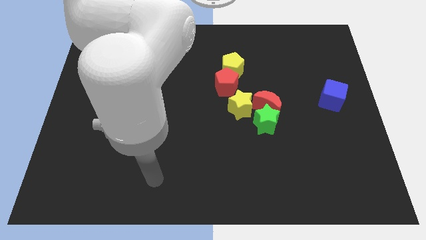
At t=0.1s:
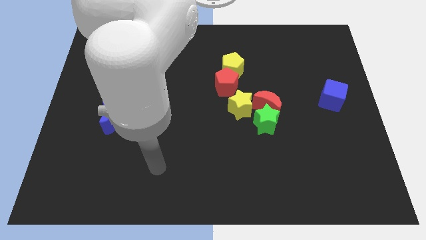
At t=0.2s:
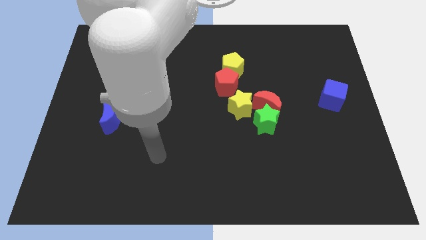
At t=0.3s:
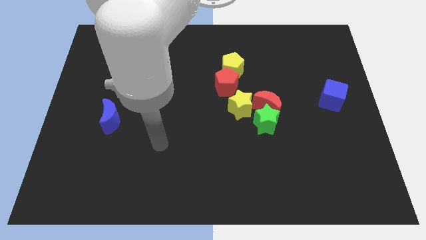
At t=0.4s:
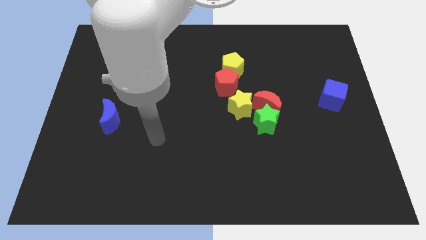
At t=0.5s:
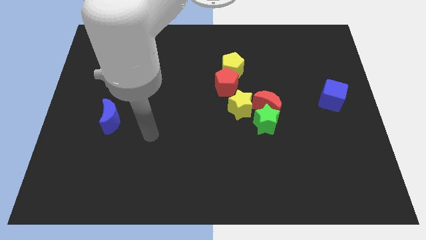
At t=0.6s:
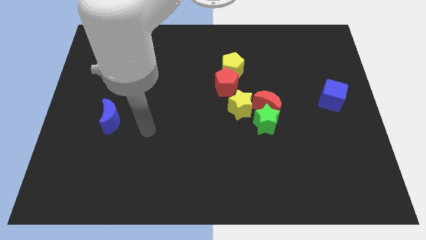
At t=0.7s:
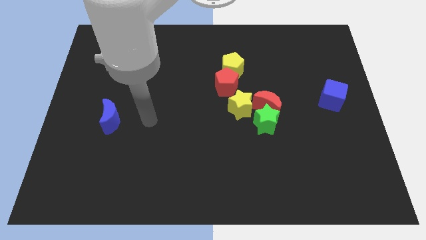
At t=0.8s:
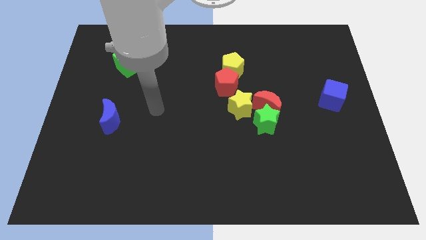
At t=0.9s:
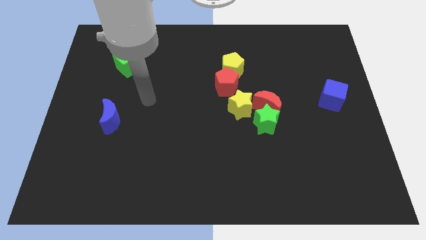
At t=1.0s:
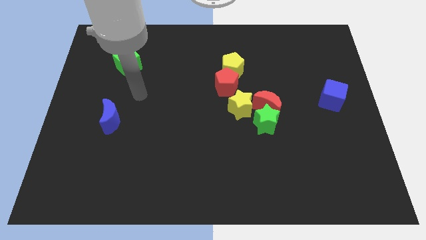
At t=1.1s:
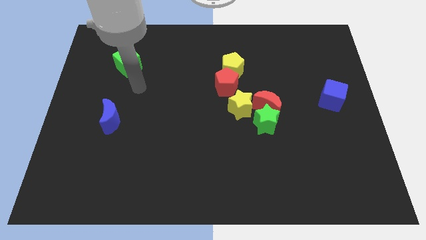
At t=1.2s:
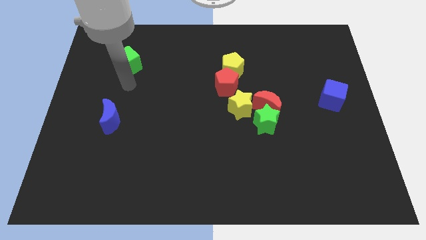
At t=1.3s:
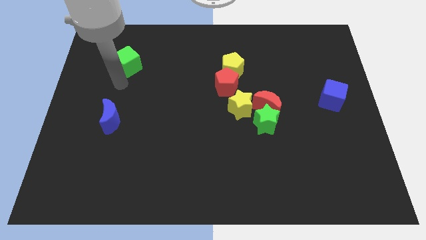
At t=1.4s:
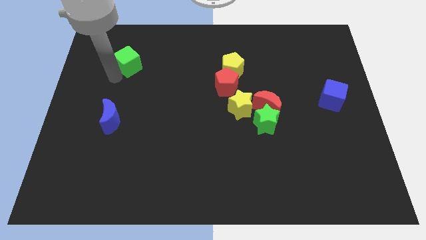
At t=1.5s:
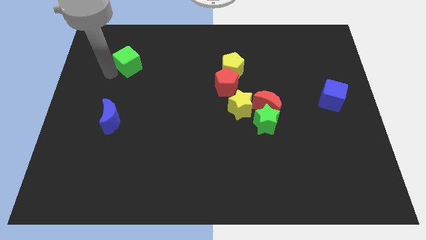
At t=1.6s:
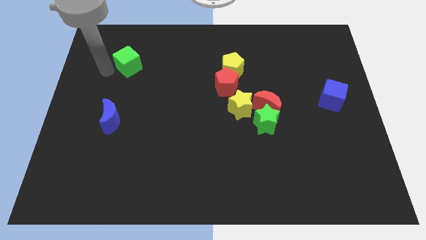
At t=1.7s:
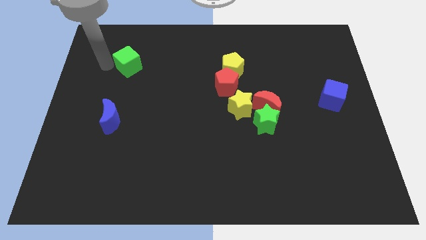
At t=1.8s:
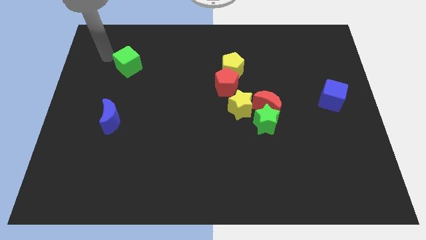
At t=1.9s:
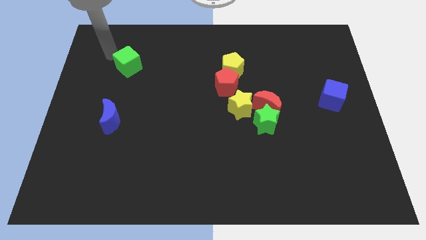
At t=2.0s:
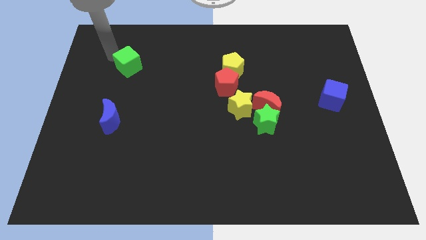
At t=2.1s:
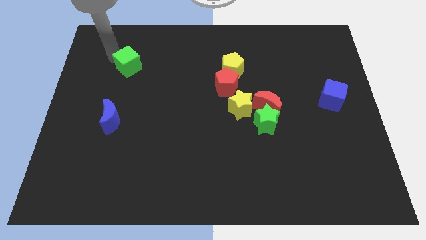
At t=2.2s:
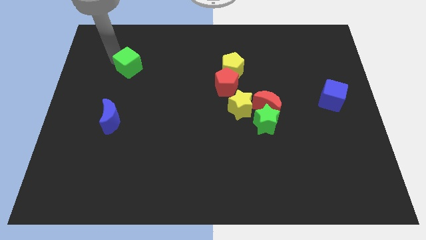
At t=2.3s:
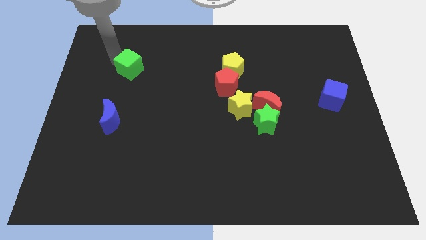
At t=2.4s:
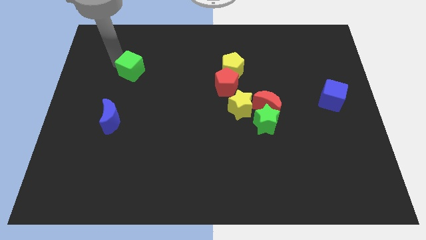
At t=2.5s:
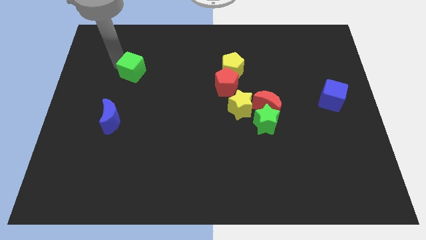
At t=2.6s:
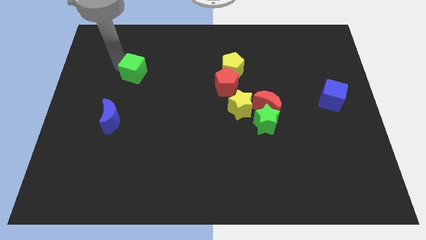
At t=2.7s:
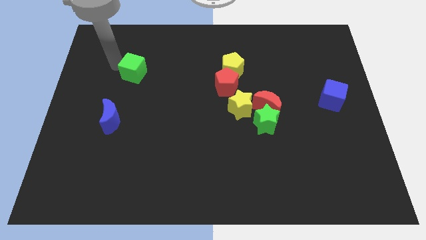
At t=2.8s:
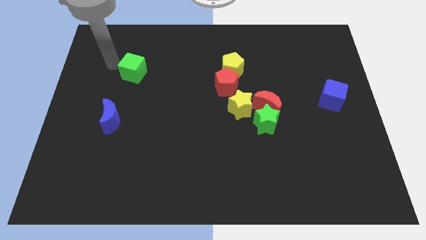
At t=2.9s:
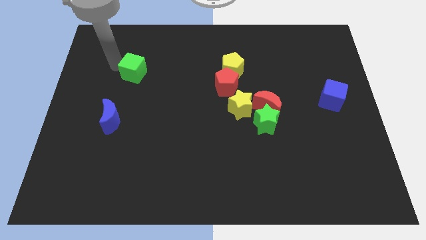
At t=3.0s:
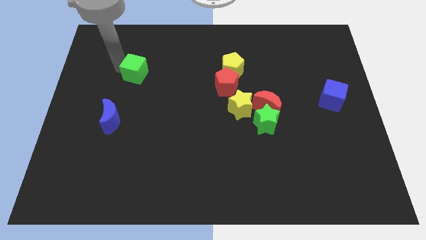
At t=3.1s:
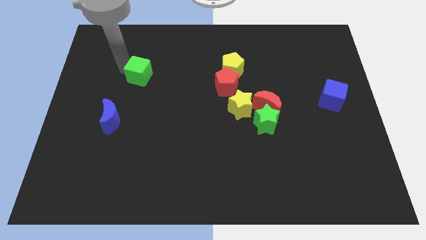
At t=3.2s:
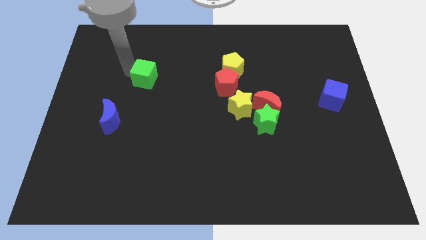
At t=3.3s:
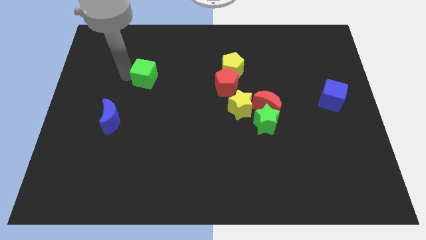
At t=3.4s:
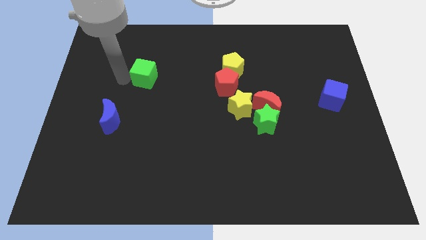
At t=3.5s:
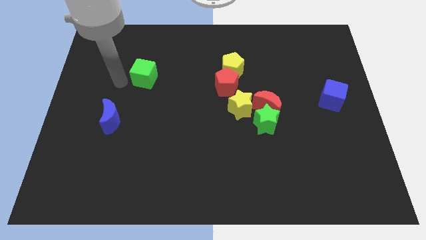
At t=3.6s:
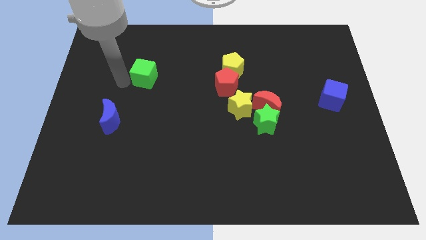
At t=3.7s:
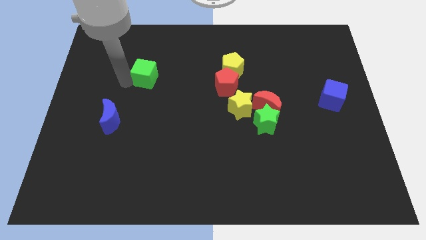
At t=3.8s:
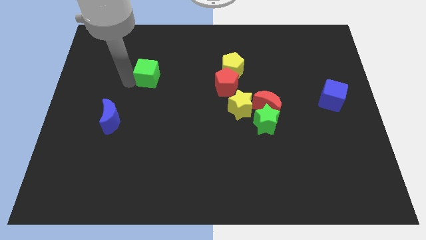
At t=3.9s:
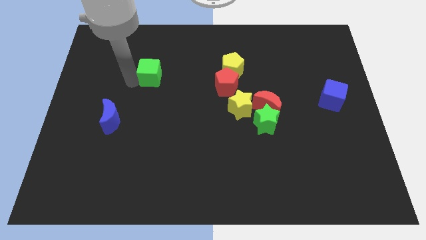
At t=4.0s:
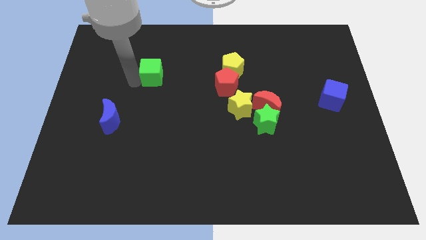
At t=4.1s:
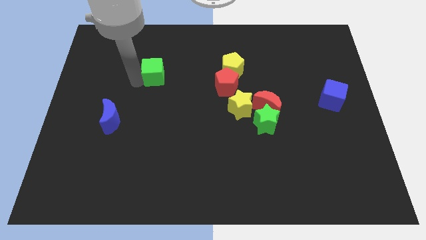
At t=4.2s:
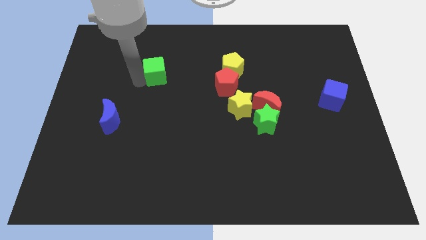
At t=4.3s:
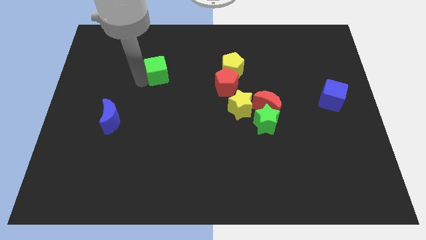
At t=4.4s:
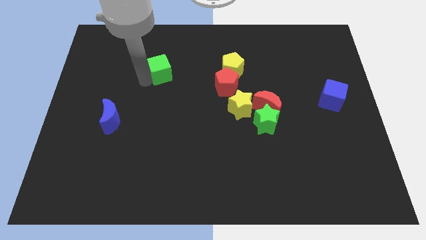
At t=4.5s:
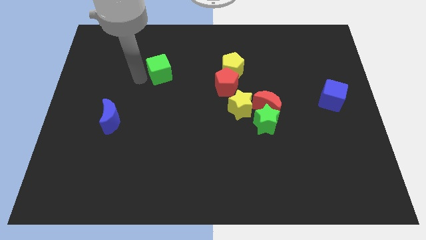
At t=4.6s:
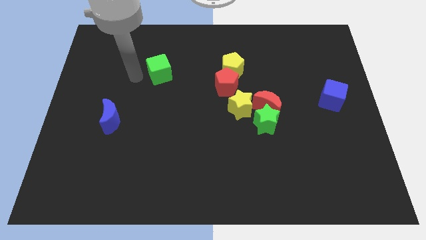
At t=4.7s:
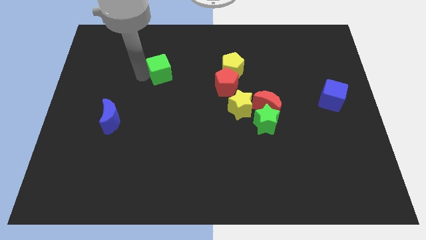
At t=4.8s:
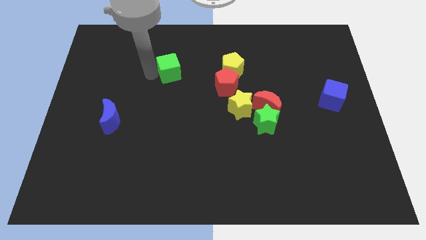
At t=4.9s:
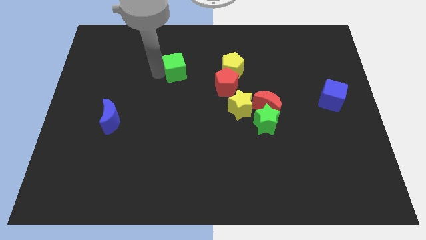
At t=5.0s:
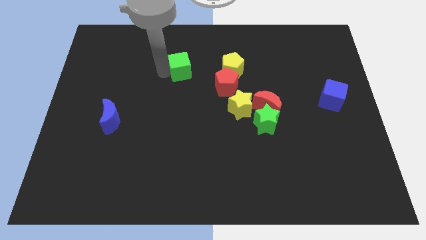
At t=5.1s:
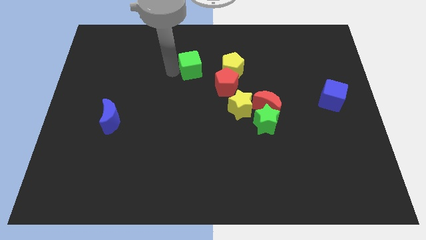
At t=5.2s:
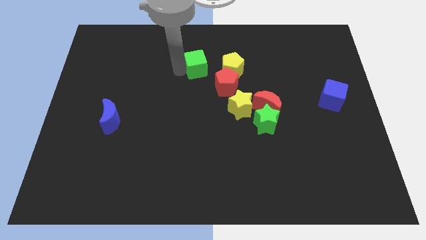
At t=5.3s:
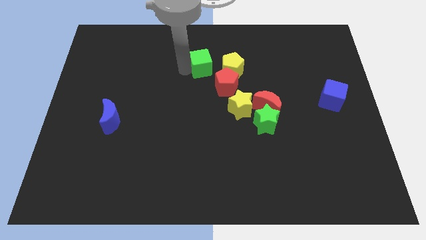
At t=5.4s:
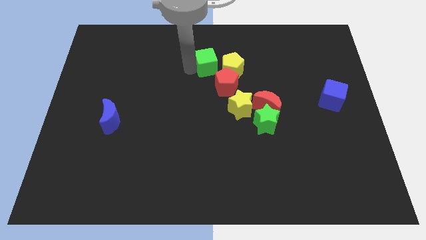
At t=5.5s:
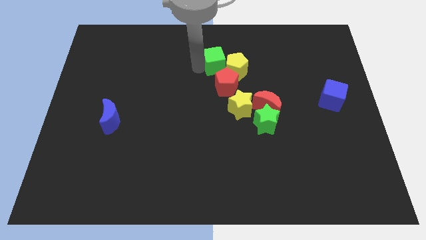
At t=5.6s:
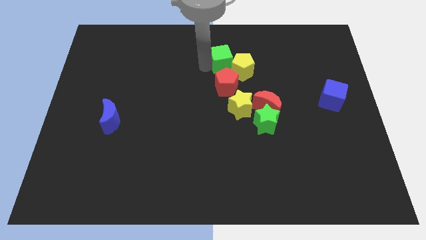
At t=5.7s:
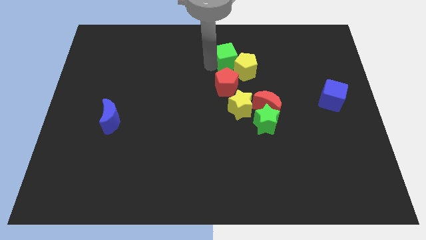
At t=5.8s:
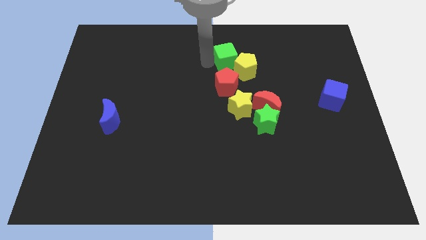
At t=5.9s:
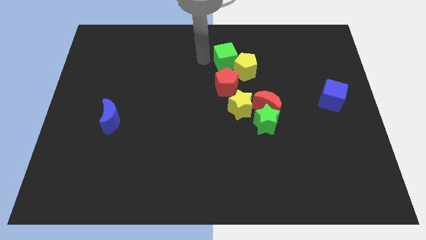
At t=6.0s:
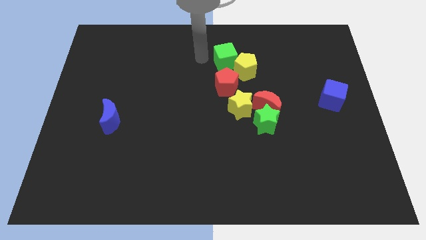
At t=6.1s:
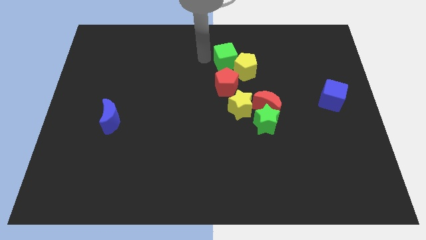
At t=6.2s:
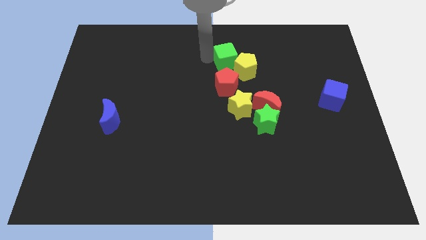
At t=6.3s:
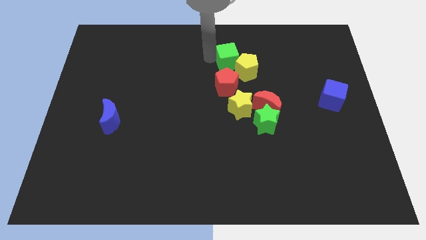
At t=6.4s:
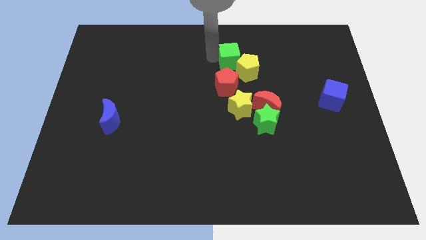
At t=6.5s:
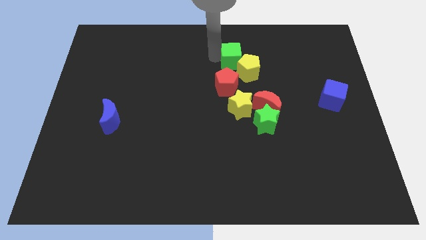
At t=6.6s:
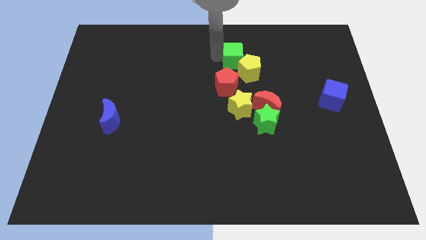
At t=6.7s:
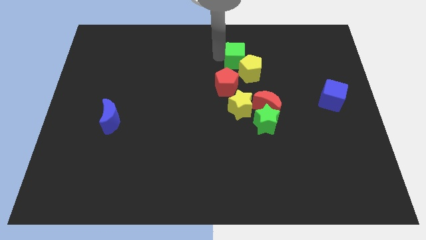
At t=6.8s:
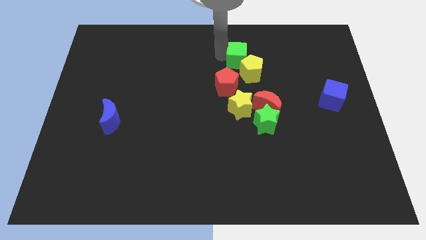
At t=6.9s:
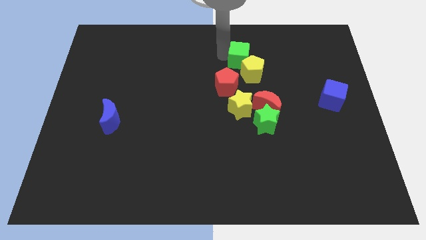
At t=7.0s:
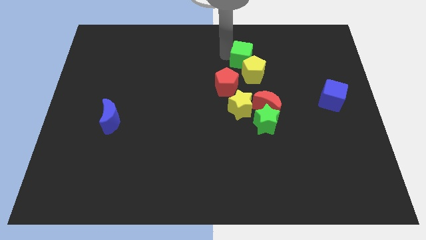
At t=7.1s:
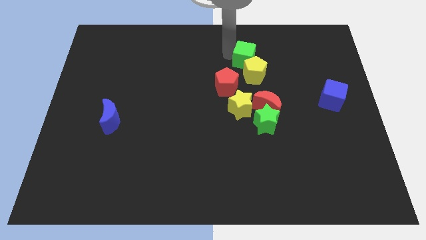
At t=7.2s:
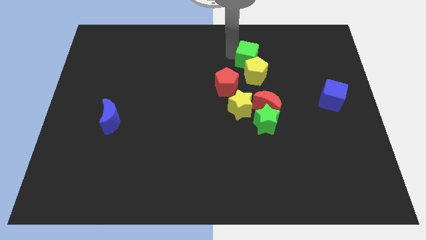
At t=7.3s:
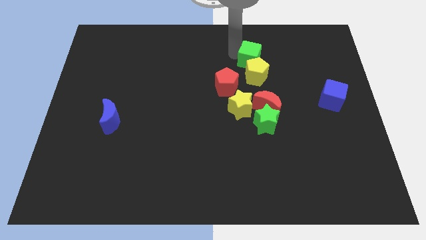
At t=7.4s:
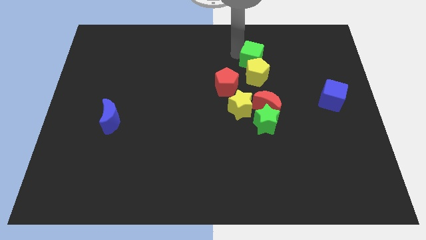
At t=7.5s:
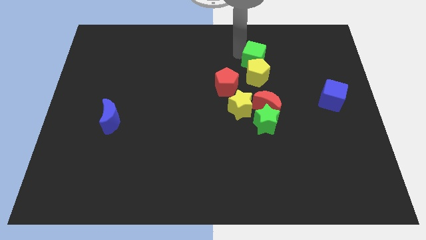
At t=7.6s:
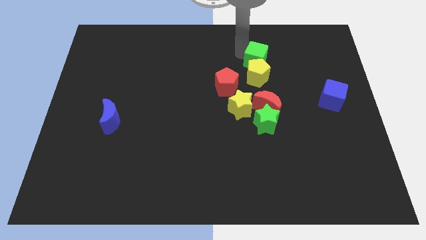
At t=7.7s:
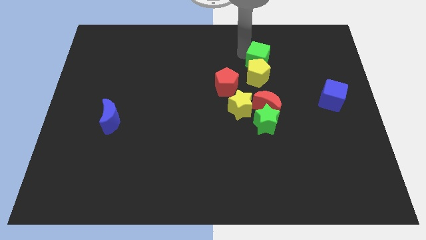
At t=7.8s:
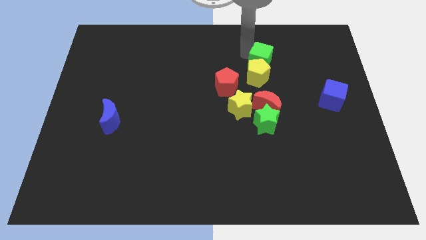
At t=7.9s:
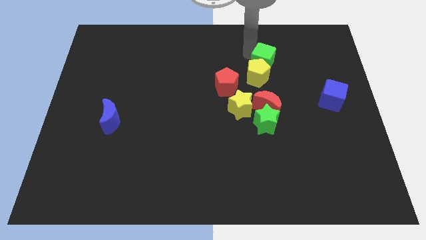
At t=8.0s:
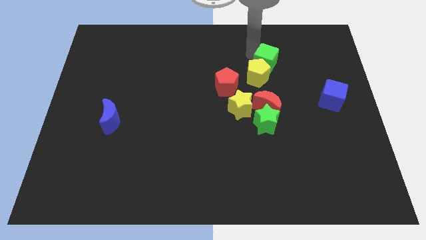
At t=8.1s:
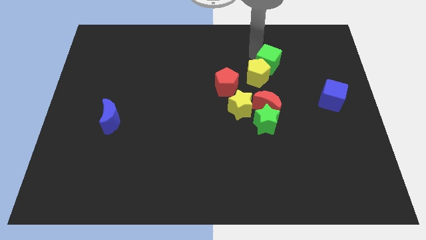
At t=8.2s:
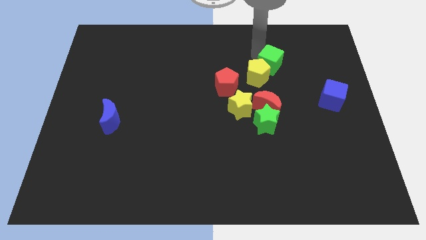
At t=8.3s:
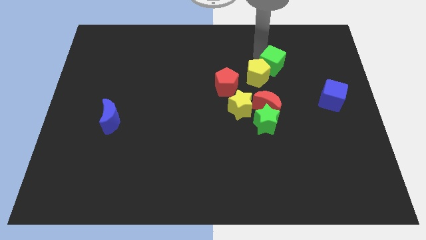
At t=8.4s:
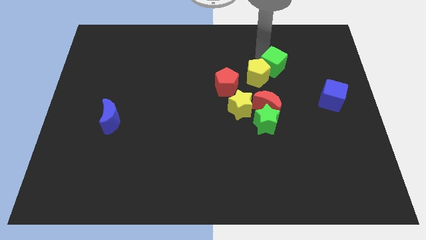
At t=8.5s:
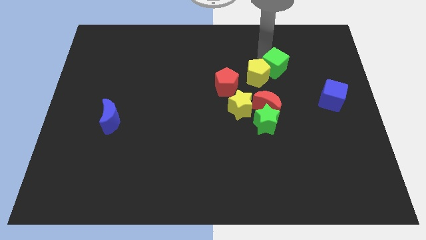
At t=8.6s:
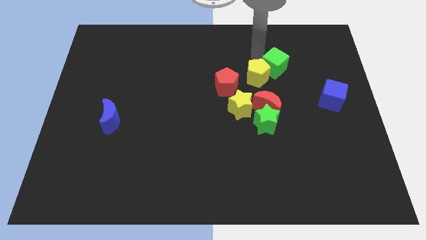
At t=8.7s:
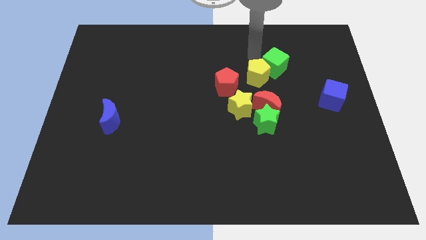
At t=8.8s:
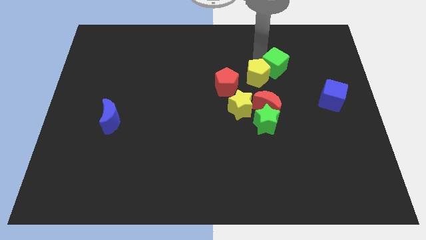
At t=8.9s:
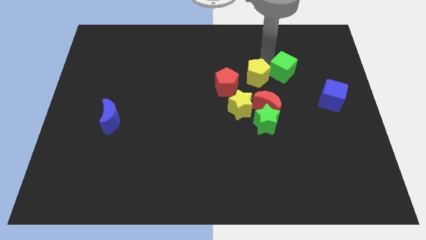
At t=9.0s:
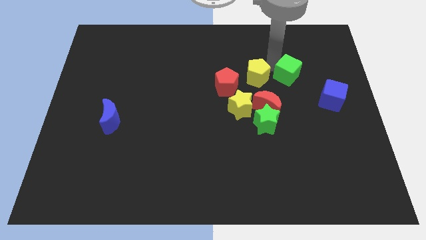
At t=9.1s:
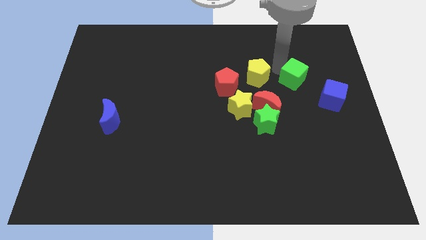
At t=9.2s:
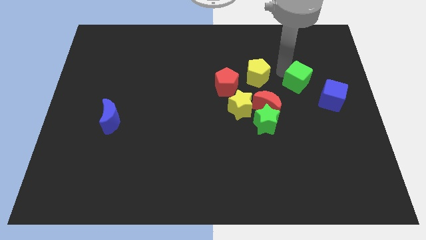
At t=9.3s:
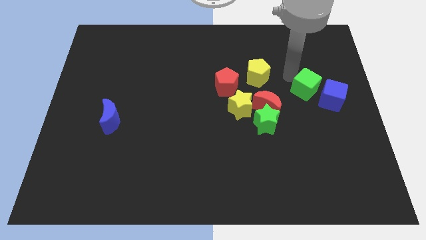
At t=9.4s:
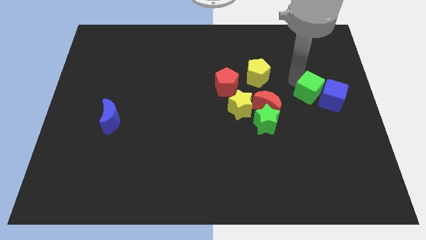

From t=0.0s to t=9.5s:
push the green cube to the blue cube
